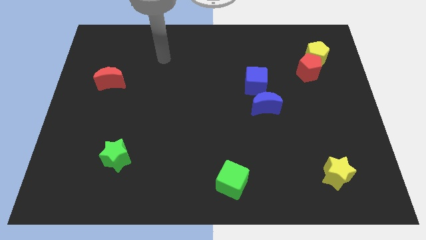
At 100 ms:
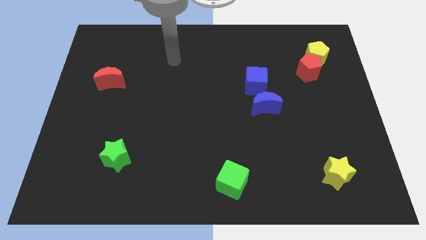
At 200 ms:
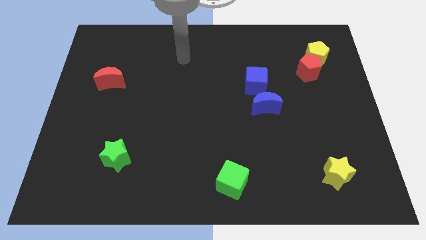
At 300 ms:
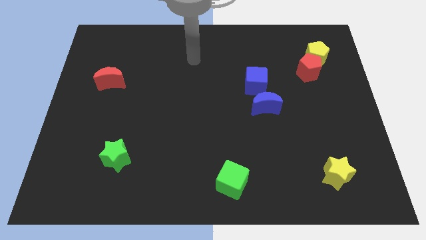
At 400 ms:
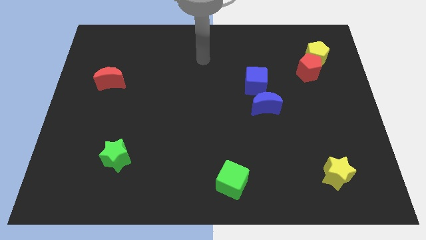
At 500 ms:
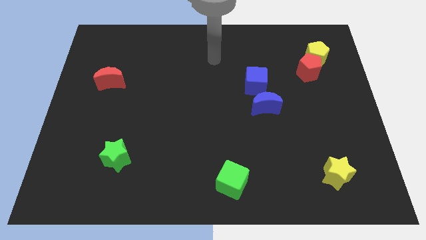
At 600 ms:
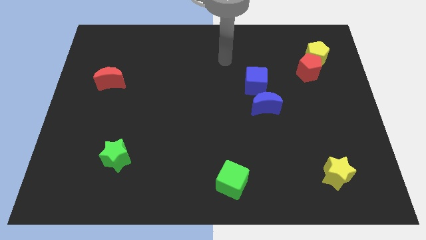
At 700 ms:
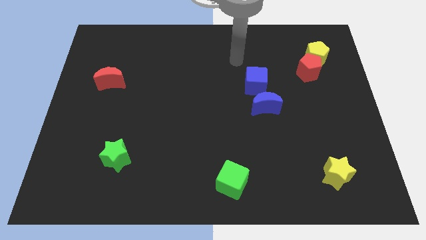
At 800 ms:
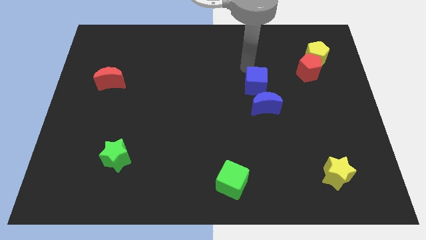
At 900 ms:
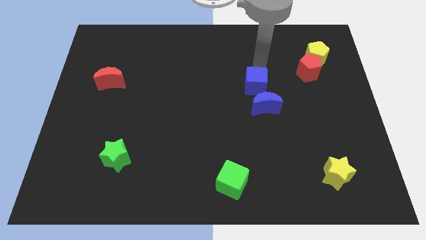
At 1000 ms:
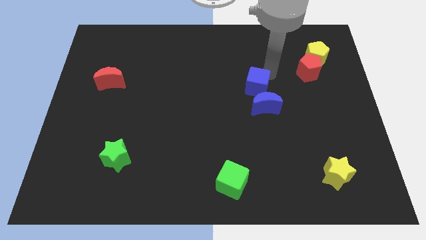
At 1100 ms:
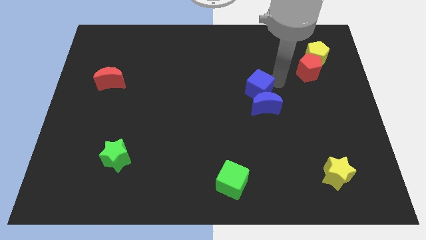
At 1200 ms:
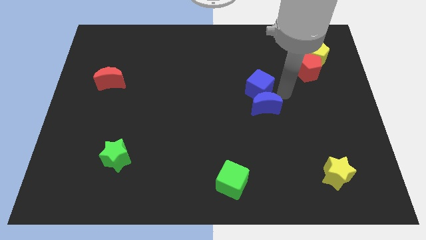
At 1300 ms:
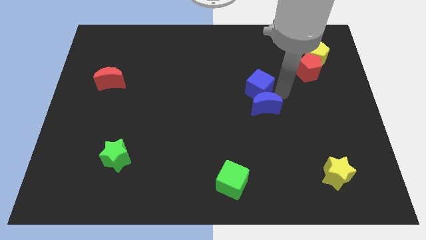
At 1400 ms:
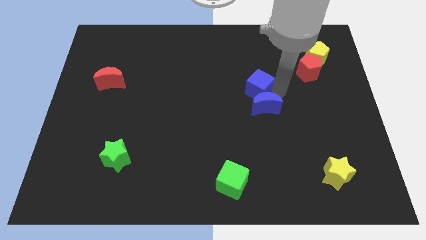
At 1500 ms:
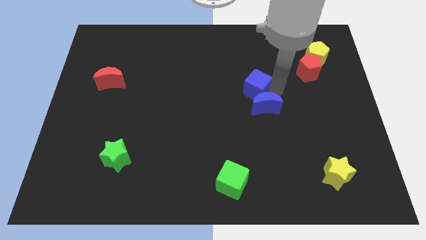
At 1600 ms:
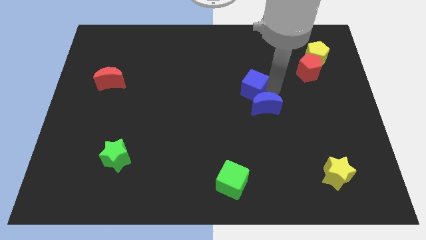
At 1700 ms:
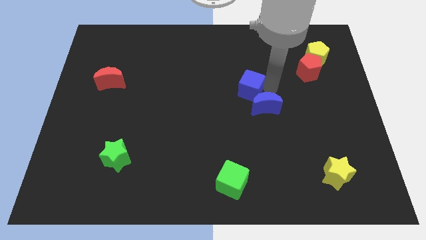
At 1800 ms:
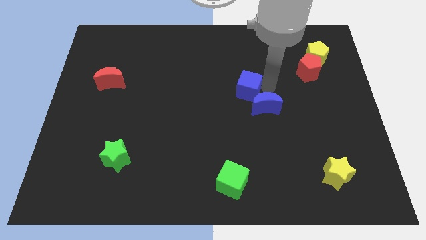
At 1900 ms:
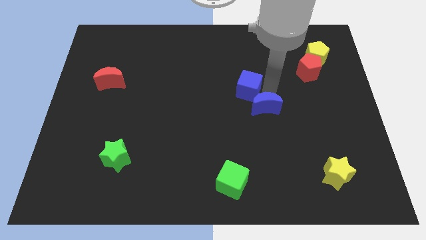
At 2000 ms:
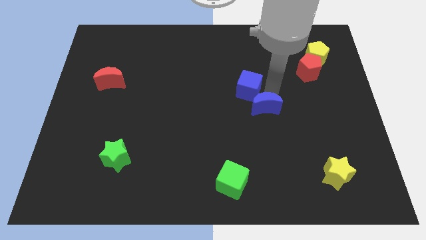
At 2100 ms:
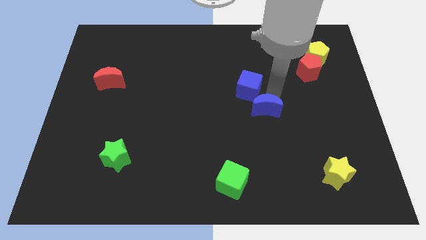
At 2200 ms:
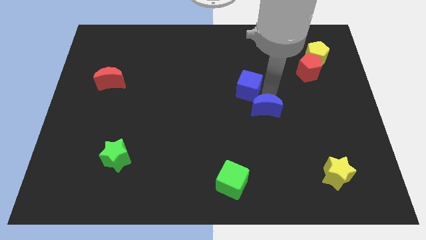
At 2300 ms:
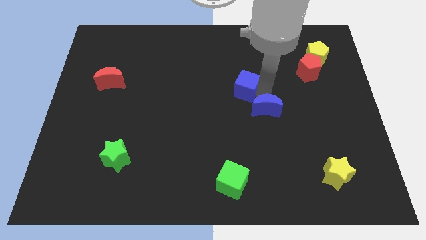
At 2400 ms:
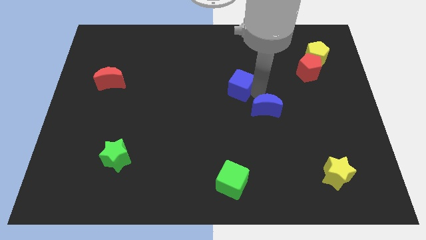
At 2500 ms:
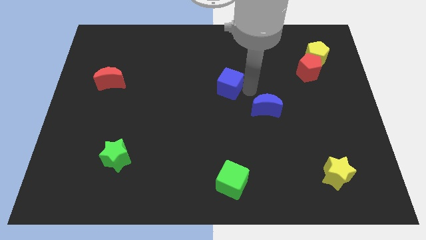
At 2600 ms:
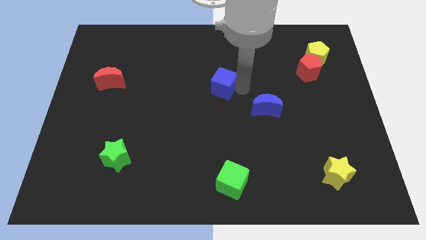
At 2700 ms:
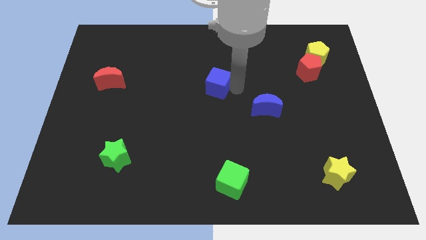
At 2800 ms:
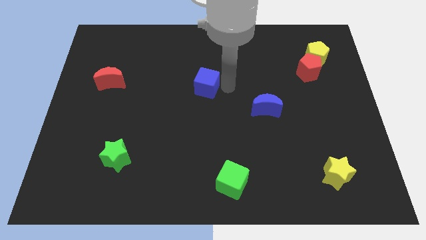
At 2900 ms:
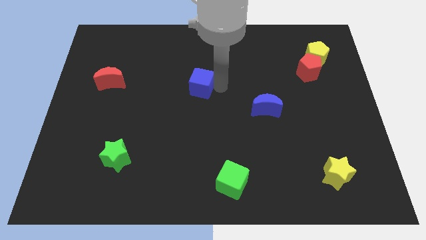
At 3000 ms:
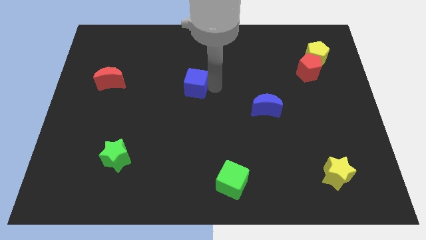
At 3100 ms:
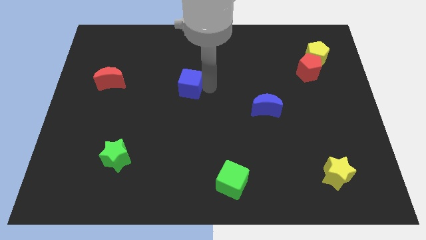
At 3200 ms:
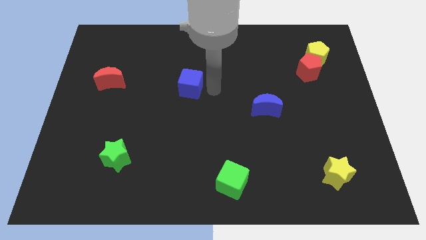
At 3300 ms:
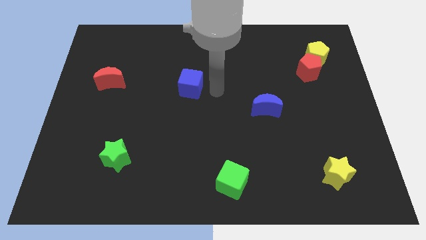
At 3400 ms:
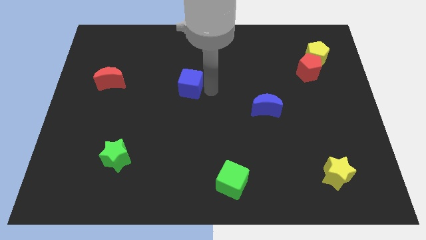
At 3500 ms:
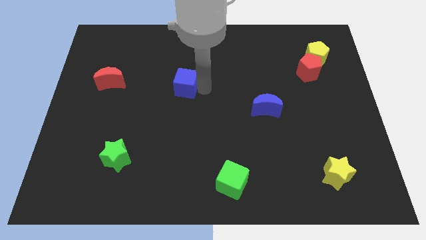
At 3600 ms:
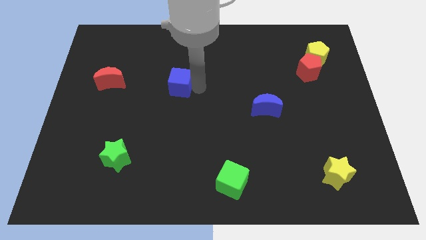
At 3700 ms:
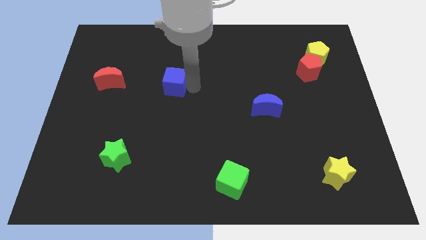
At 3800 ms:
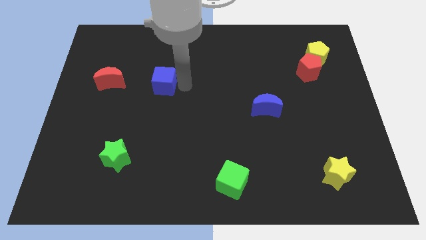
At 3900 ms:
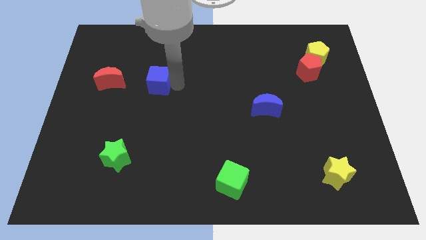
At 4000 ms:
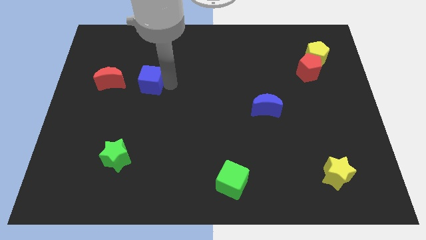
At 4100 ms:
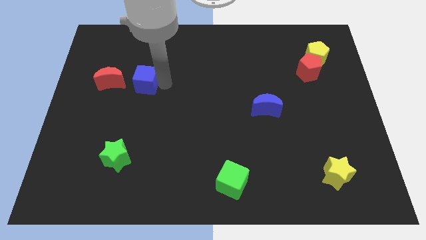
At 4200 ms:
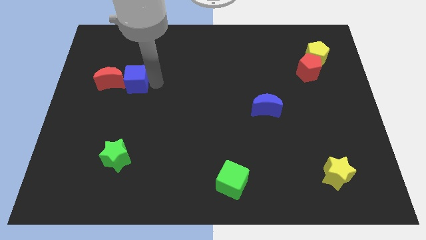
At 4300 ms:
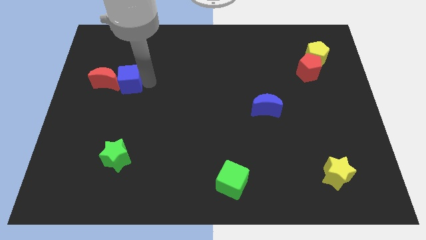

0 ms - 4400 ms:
move the blue cube to the red moon

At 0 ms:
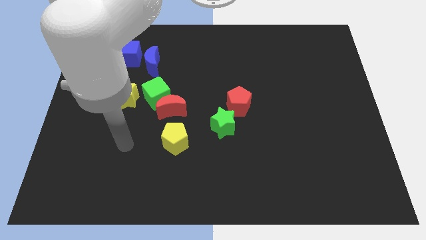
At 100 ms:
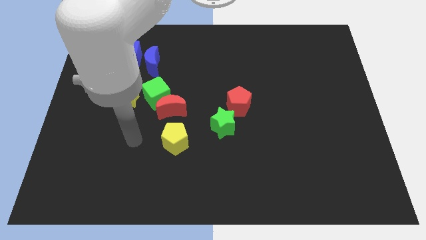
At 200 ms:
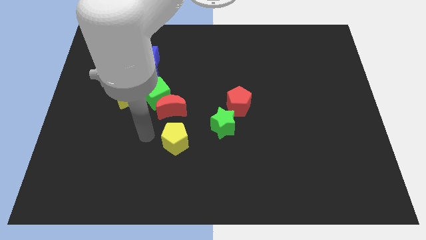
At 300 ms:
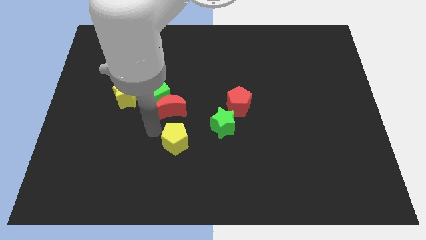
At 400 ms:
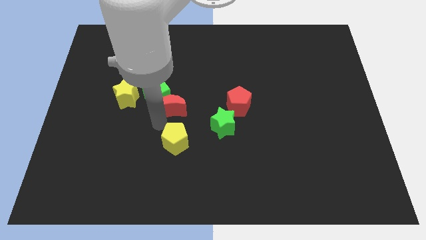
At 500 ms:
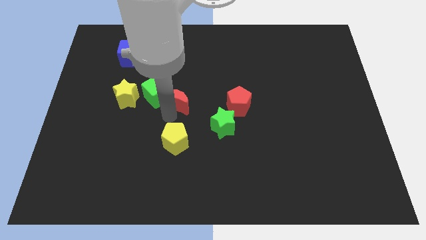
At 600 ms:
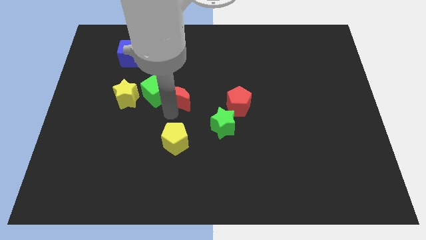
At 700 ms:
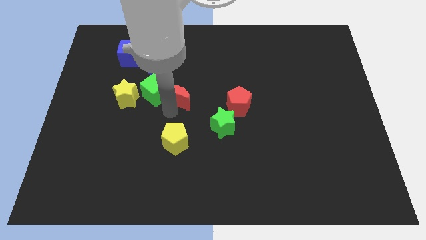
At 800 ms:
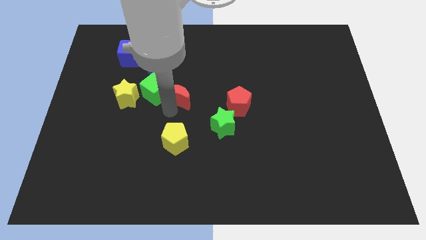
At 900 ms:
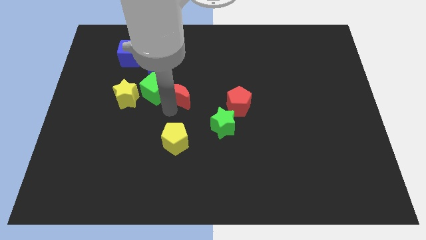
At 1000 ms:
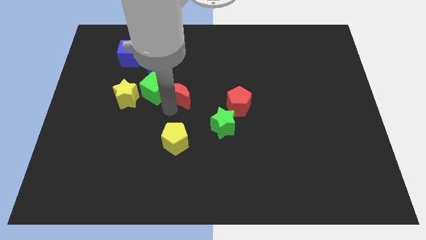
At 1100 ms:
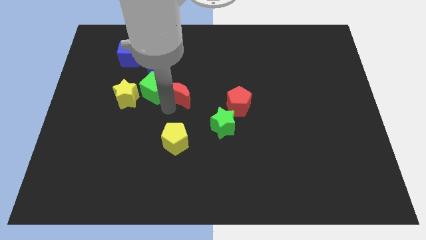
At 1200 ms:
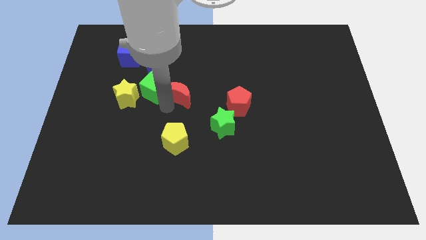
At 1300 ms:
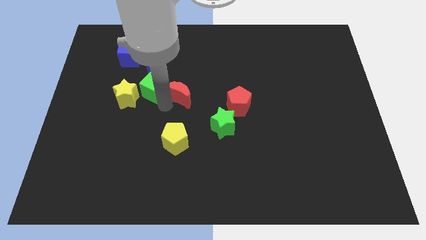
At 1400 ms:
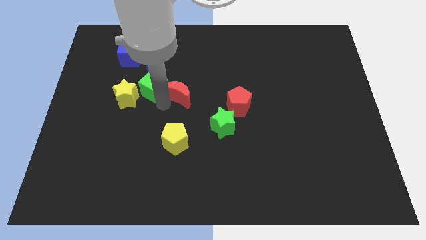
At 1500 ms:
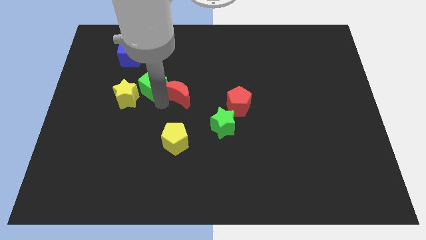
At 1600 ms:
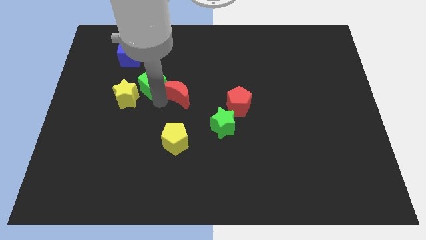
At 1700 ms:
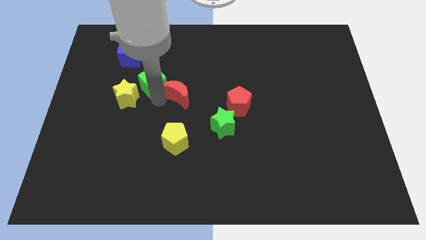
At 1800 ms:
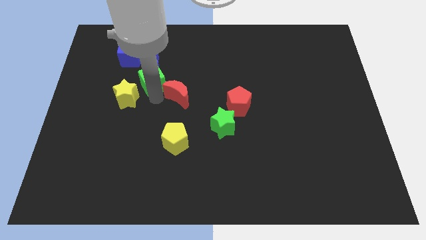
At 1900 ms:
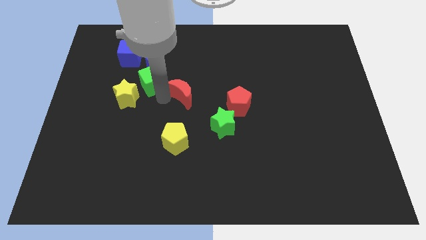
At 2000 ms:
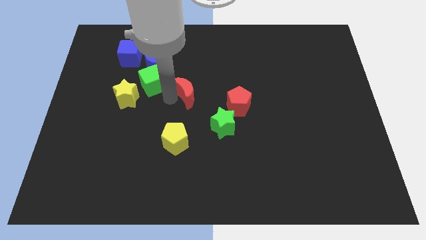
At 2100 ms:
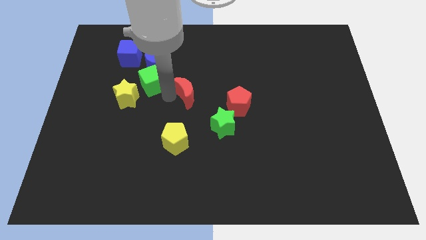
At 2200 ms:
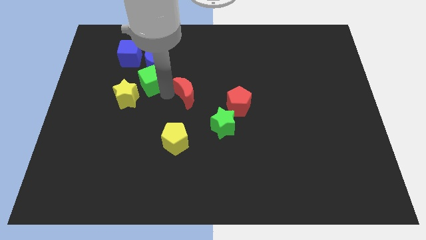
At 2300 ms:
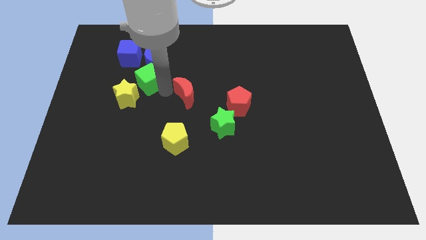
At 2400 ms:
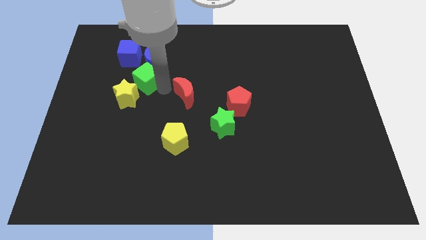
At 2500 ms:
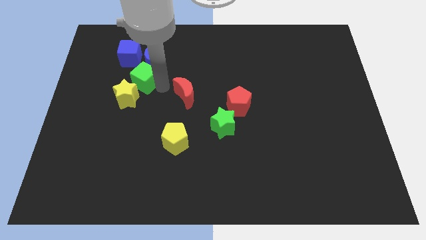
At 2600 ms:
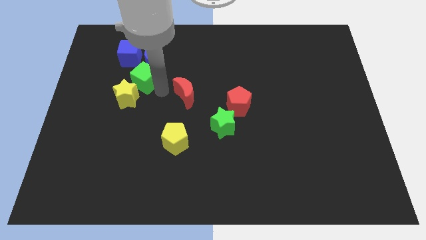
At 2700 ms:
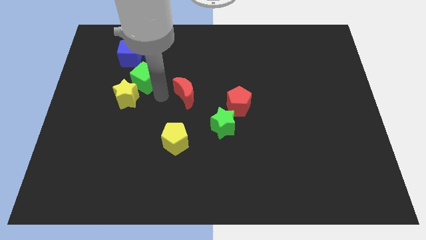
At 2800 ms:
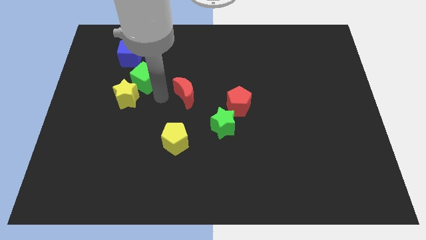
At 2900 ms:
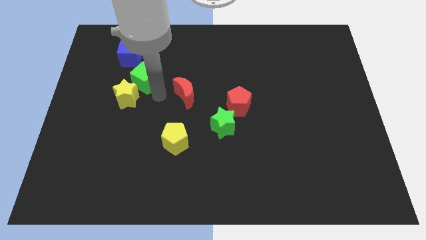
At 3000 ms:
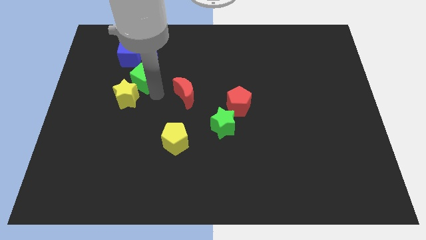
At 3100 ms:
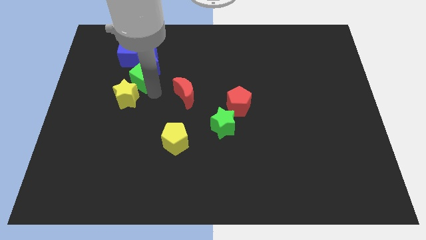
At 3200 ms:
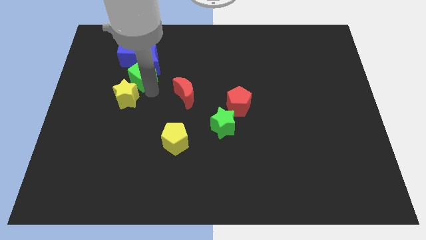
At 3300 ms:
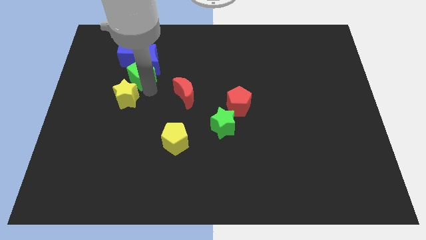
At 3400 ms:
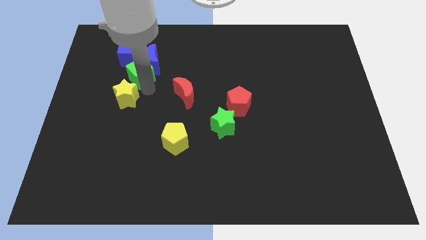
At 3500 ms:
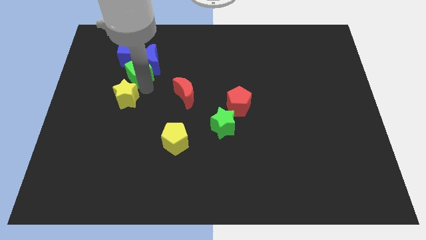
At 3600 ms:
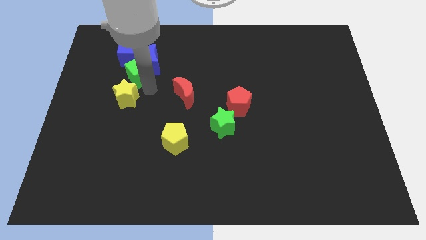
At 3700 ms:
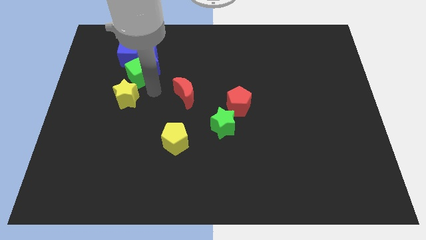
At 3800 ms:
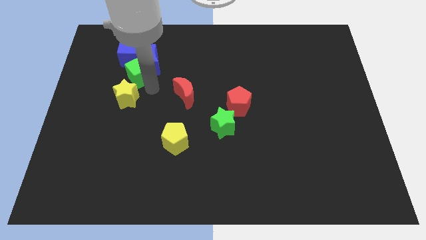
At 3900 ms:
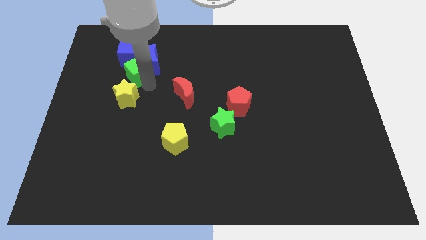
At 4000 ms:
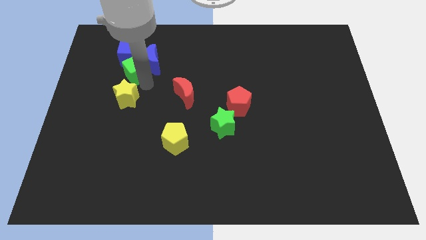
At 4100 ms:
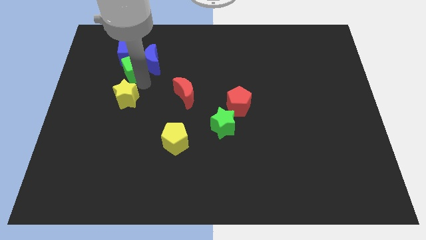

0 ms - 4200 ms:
put the green cube towards the blue cube
